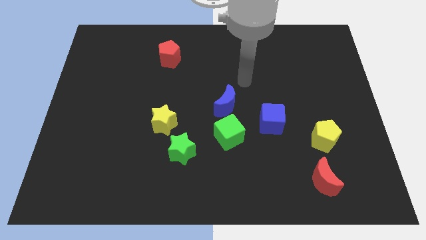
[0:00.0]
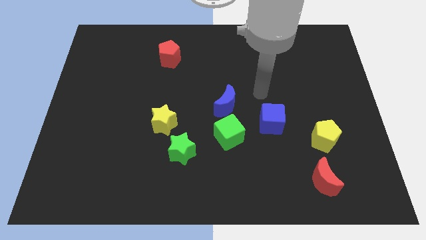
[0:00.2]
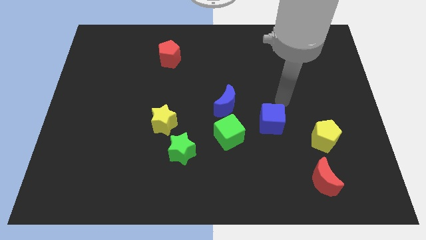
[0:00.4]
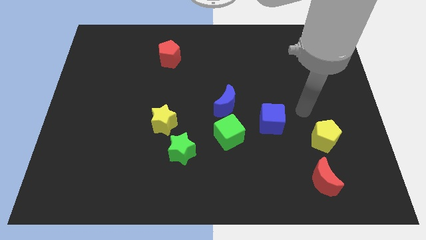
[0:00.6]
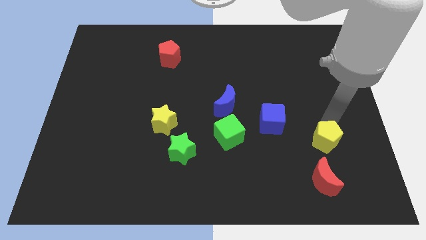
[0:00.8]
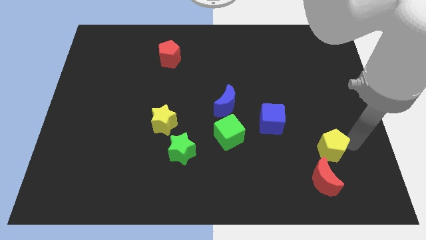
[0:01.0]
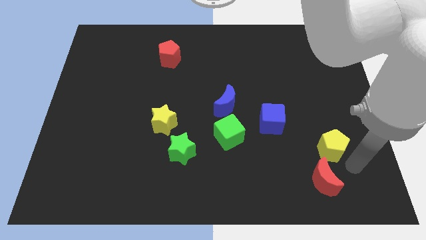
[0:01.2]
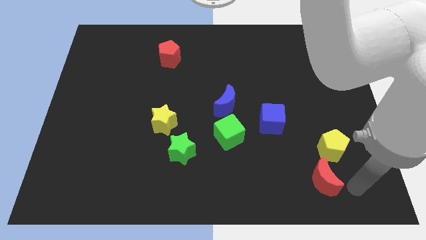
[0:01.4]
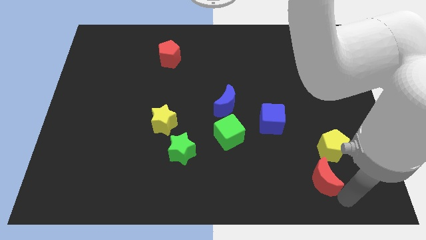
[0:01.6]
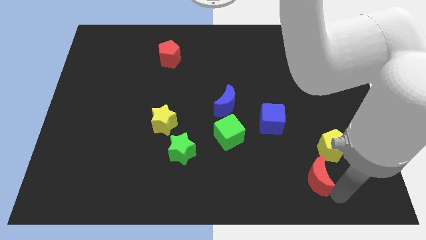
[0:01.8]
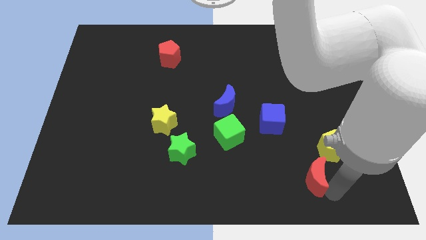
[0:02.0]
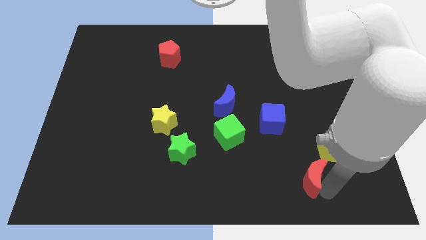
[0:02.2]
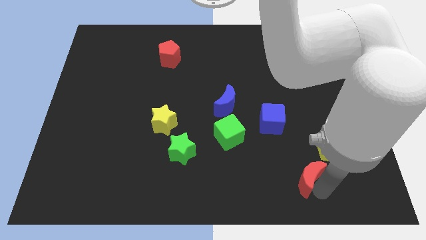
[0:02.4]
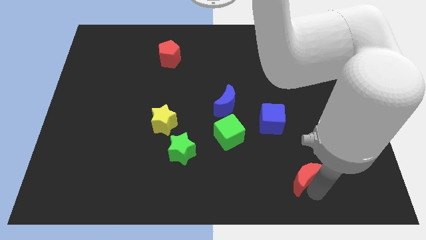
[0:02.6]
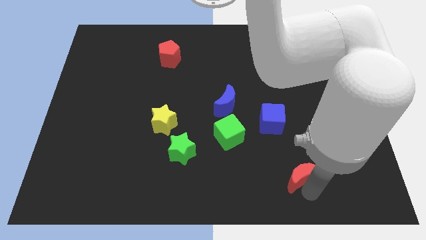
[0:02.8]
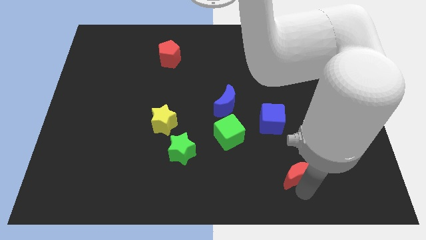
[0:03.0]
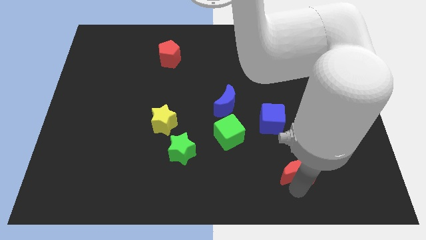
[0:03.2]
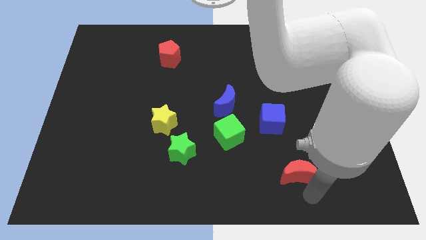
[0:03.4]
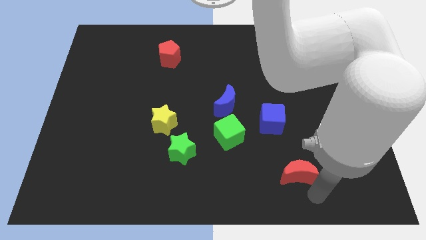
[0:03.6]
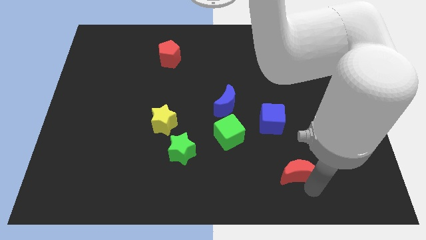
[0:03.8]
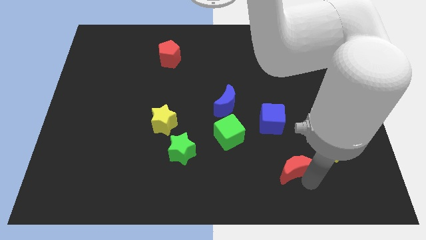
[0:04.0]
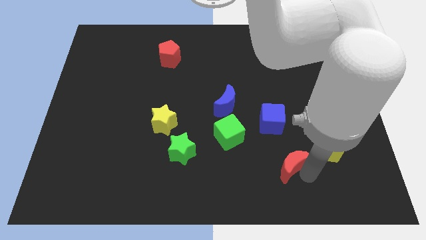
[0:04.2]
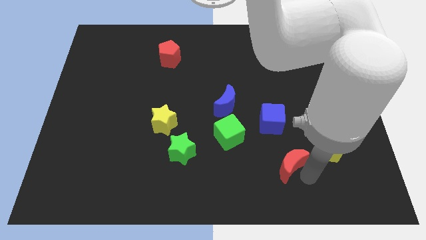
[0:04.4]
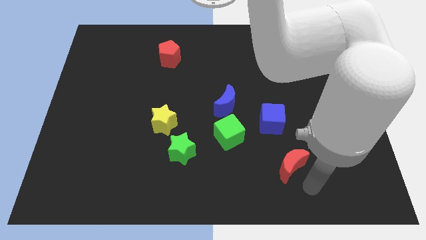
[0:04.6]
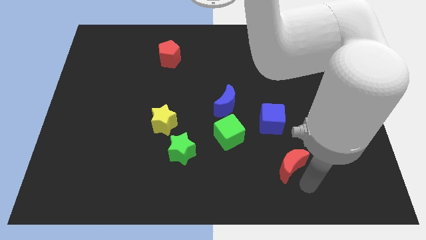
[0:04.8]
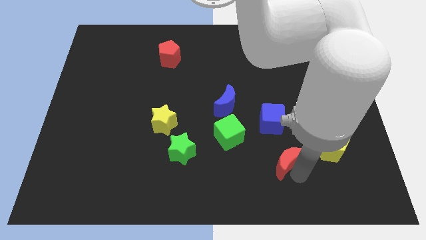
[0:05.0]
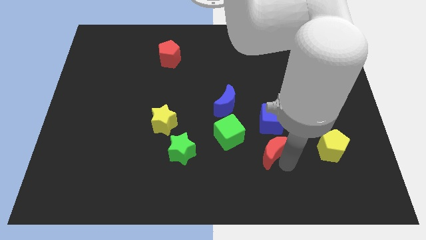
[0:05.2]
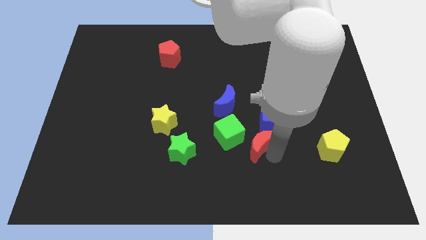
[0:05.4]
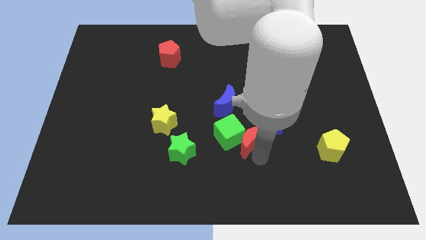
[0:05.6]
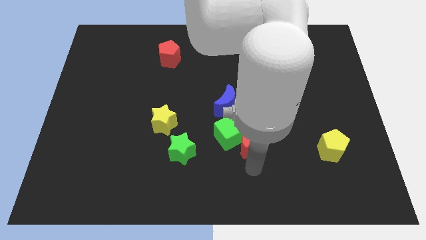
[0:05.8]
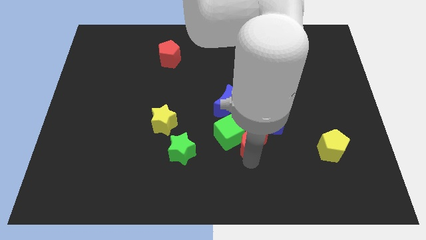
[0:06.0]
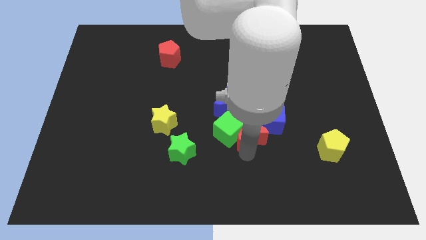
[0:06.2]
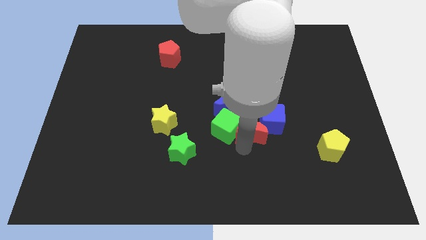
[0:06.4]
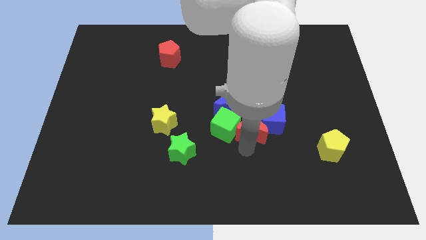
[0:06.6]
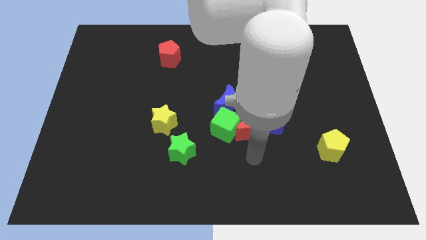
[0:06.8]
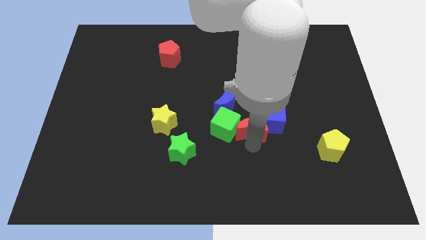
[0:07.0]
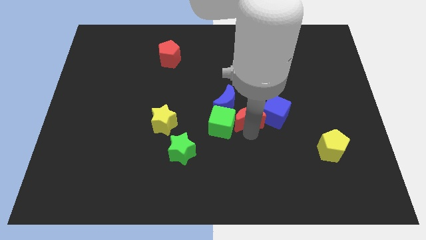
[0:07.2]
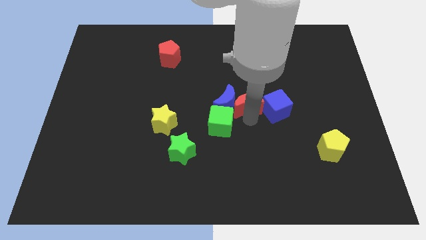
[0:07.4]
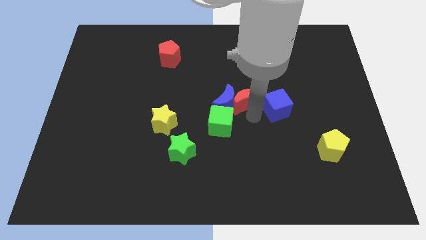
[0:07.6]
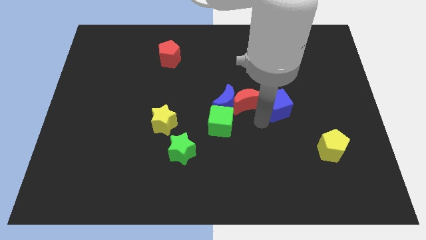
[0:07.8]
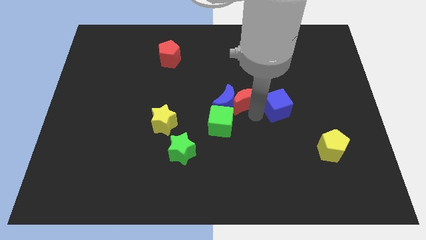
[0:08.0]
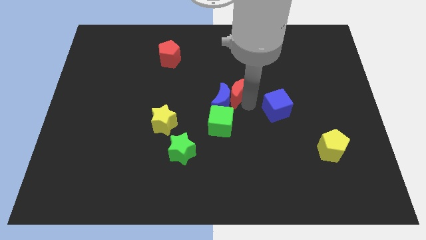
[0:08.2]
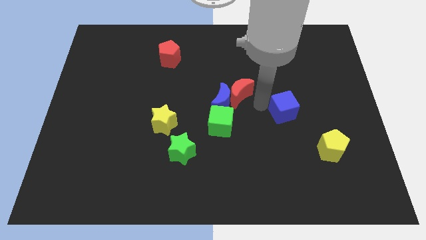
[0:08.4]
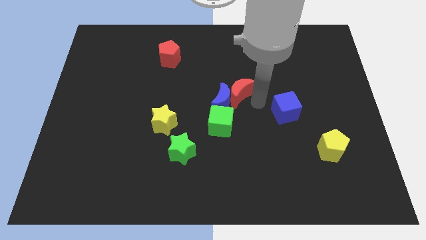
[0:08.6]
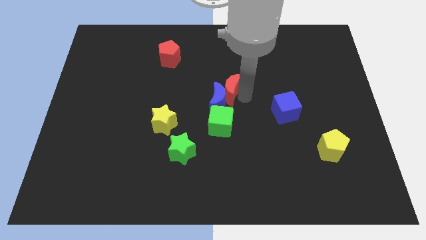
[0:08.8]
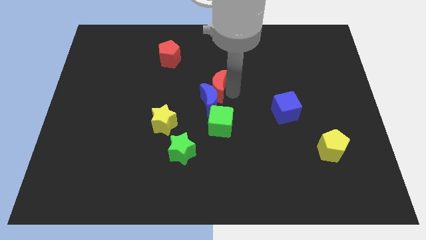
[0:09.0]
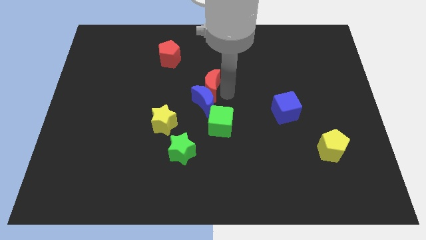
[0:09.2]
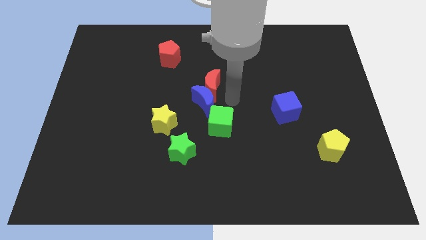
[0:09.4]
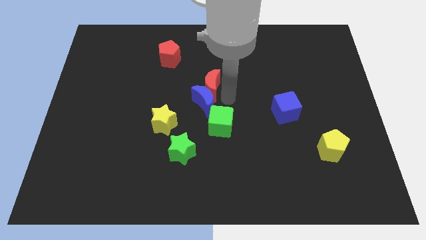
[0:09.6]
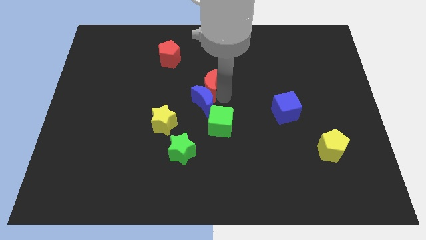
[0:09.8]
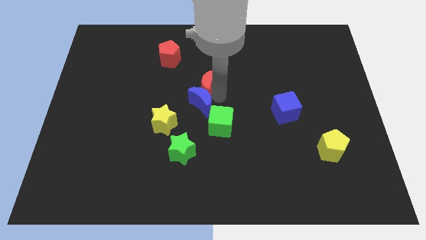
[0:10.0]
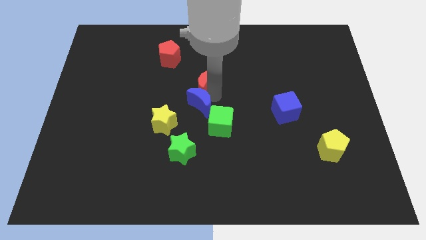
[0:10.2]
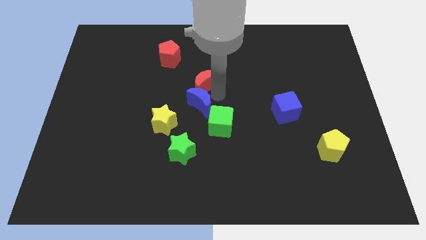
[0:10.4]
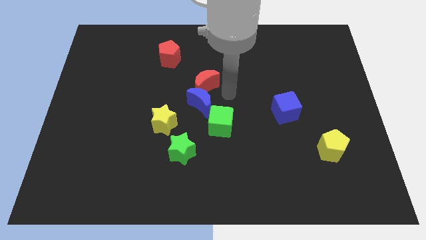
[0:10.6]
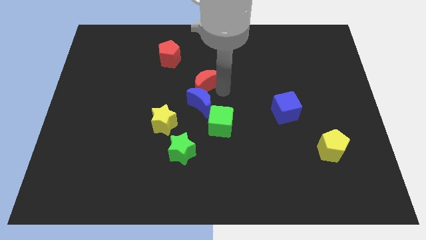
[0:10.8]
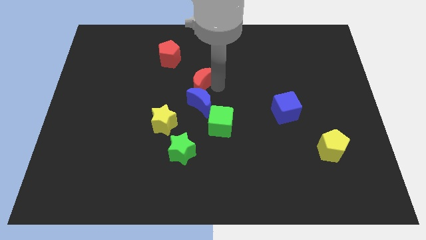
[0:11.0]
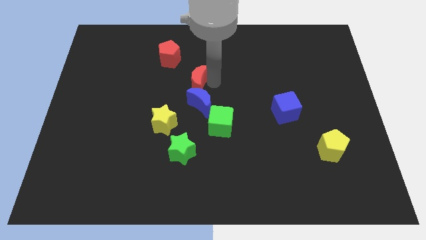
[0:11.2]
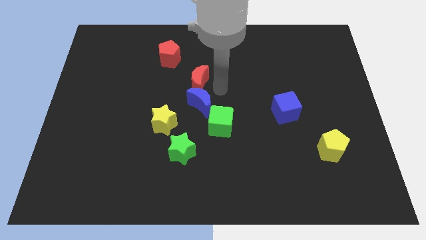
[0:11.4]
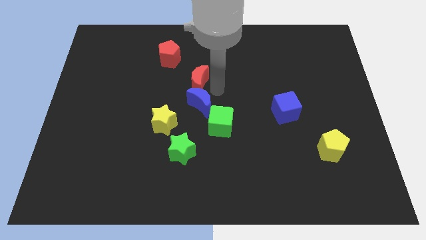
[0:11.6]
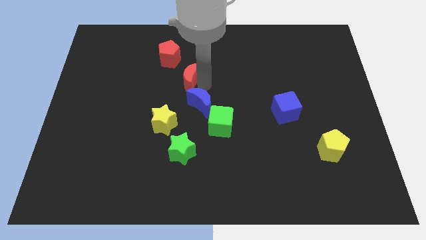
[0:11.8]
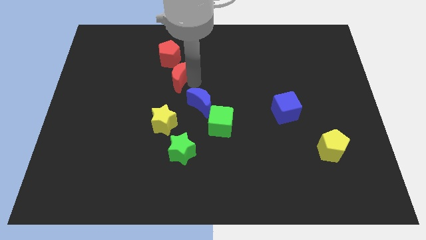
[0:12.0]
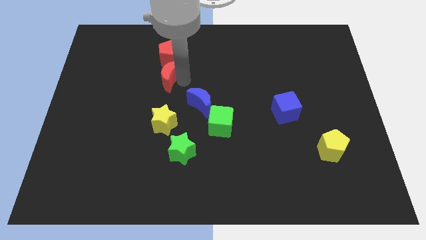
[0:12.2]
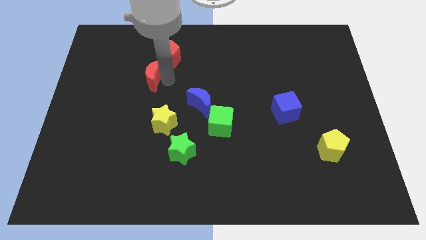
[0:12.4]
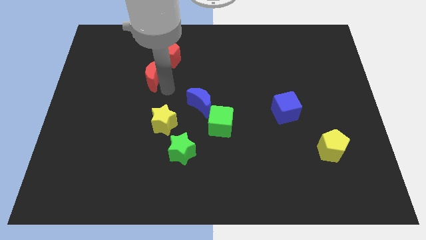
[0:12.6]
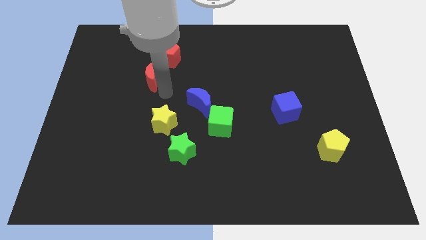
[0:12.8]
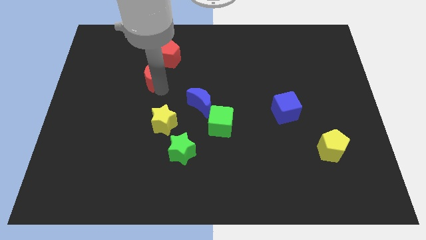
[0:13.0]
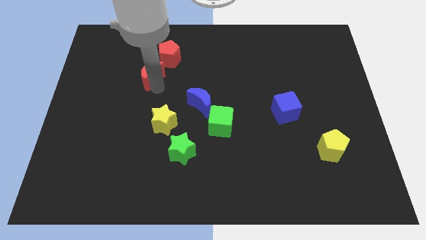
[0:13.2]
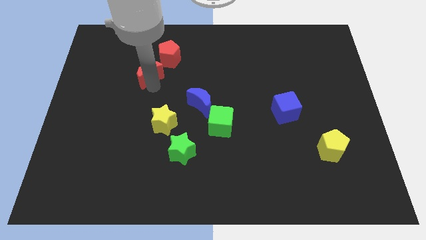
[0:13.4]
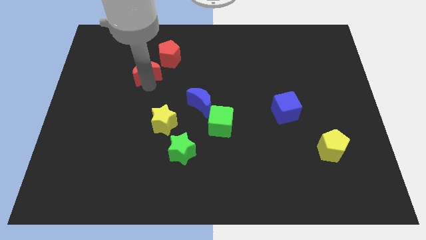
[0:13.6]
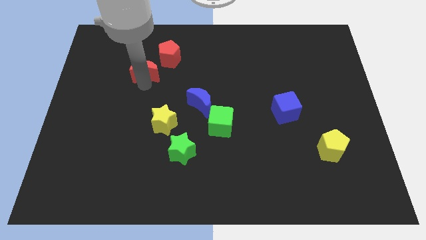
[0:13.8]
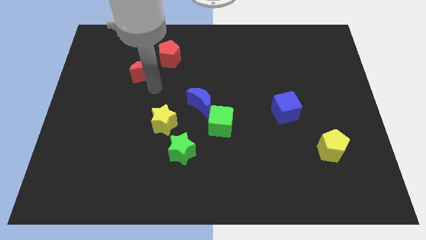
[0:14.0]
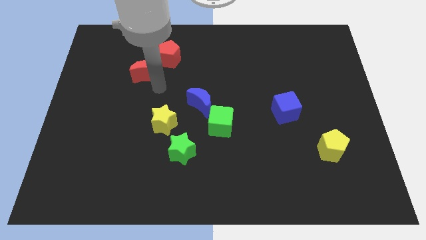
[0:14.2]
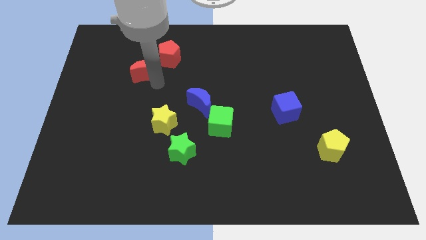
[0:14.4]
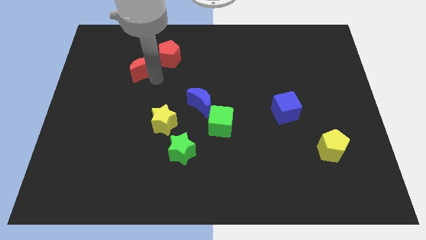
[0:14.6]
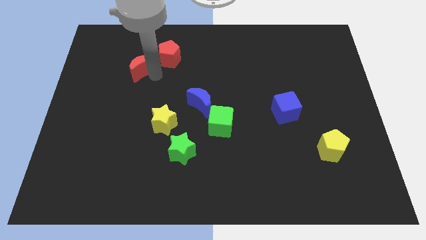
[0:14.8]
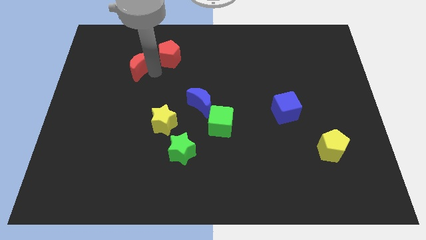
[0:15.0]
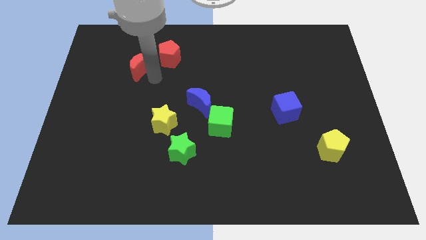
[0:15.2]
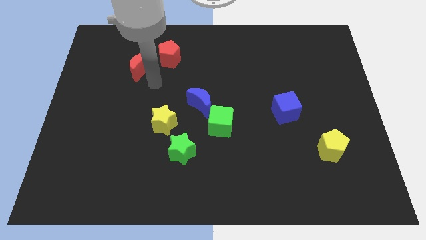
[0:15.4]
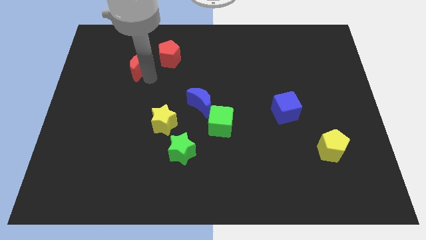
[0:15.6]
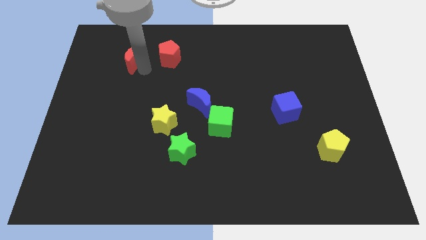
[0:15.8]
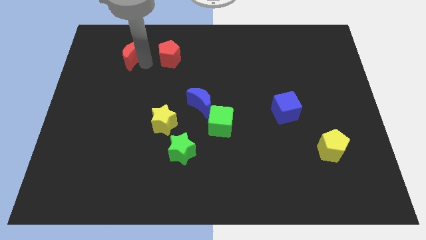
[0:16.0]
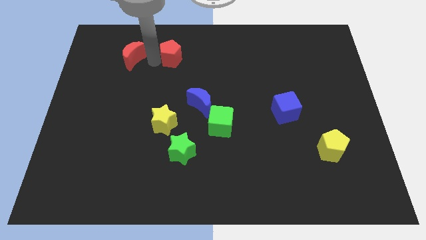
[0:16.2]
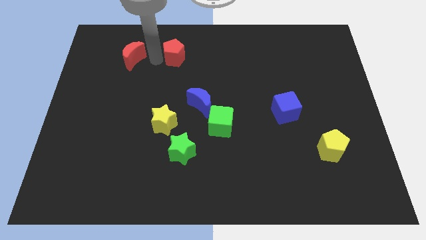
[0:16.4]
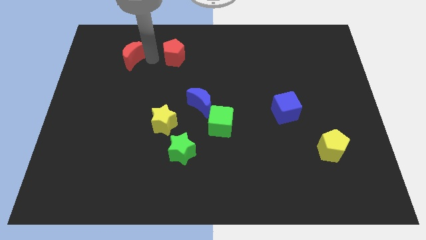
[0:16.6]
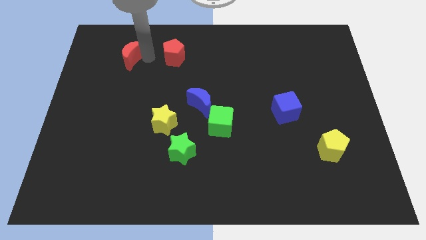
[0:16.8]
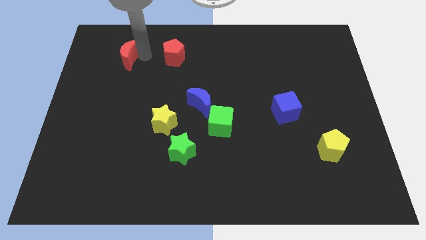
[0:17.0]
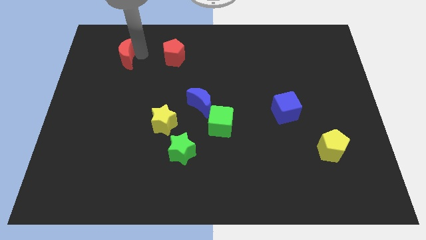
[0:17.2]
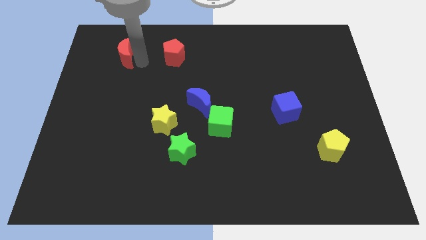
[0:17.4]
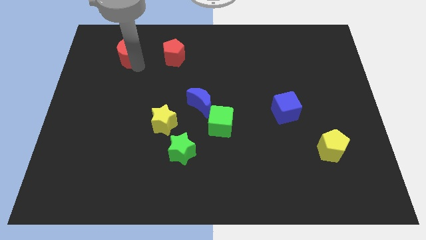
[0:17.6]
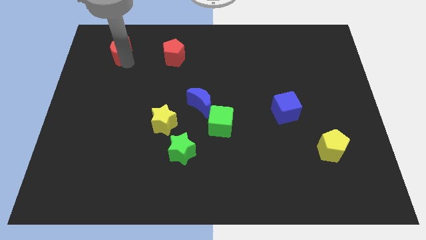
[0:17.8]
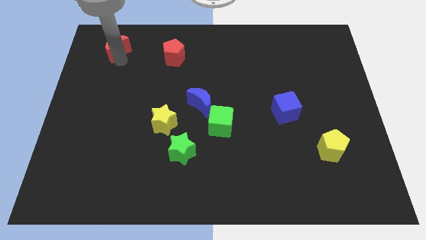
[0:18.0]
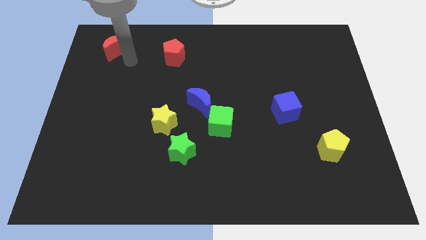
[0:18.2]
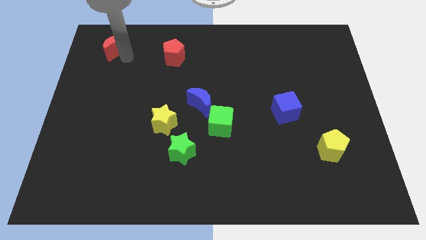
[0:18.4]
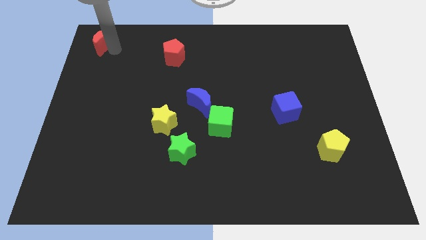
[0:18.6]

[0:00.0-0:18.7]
put the red moon to the top left corner
